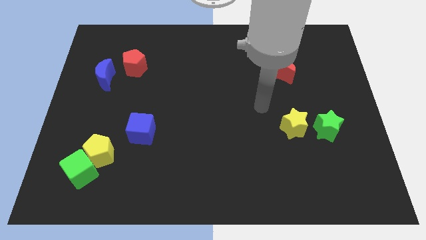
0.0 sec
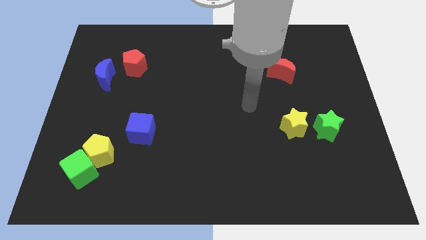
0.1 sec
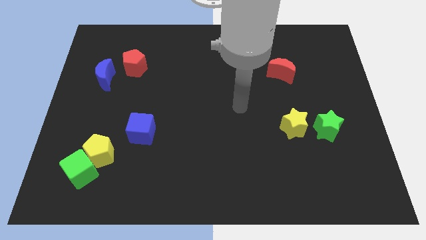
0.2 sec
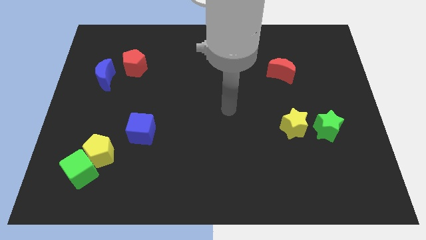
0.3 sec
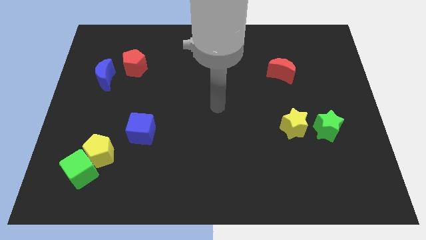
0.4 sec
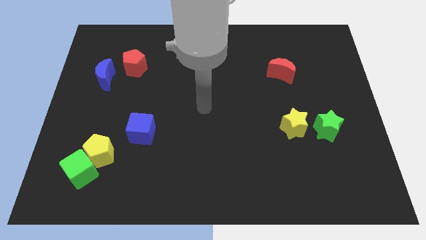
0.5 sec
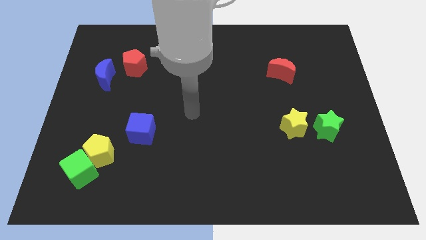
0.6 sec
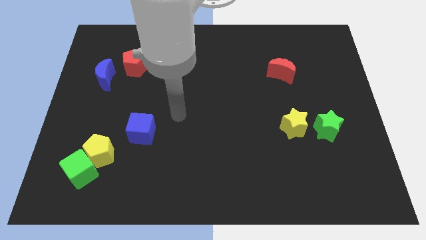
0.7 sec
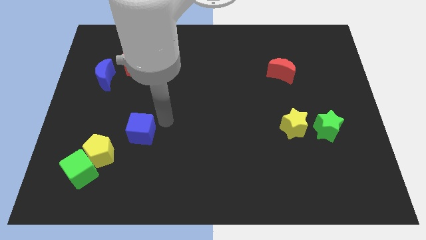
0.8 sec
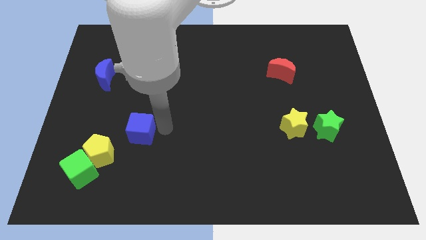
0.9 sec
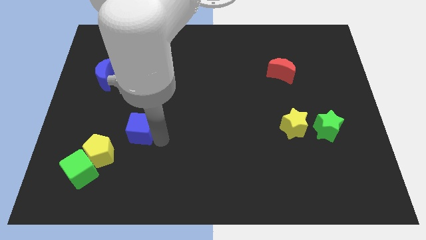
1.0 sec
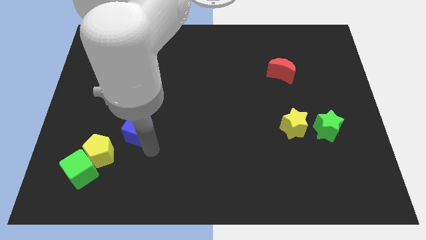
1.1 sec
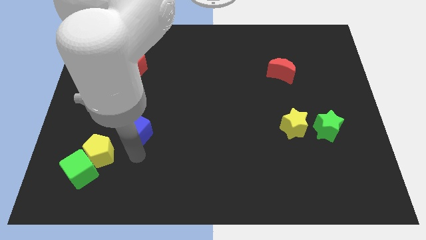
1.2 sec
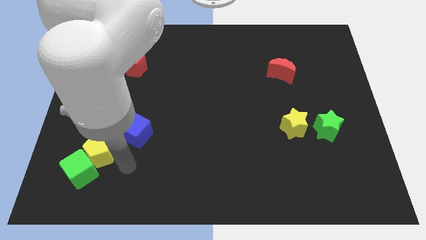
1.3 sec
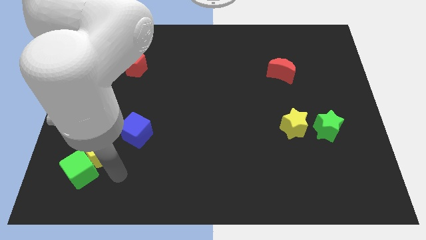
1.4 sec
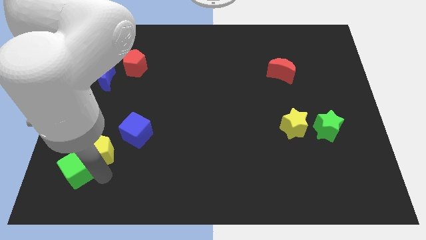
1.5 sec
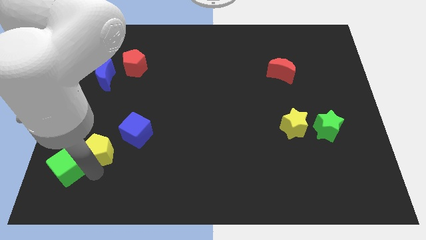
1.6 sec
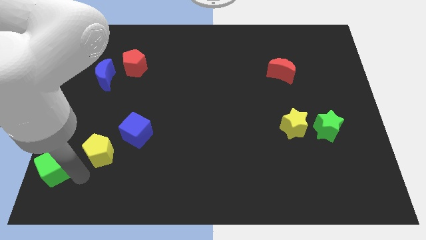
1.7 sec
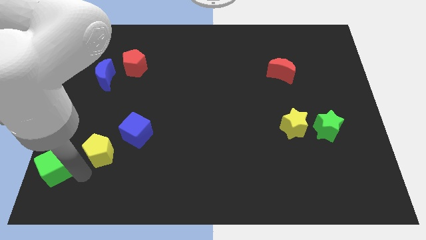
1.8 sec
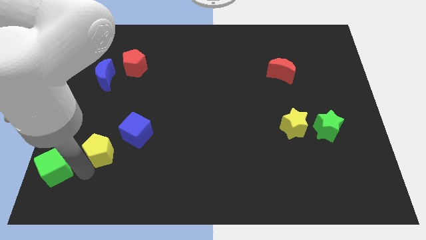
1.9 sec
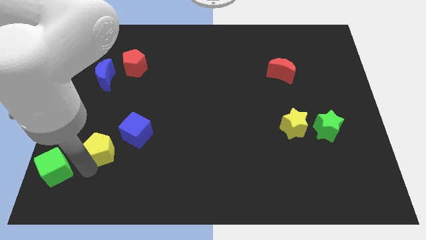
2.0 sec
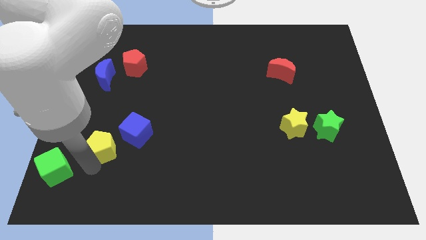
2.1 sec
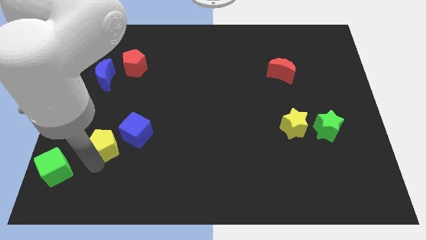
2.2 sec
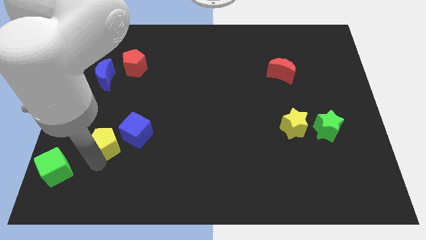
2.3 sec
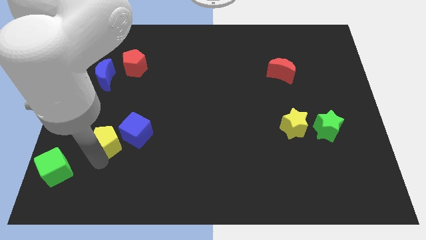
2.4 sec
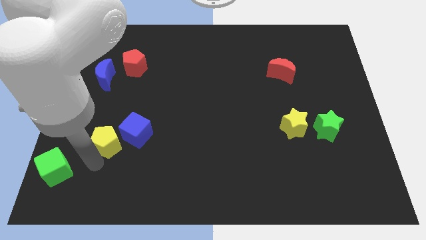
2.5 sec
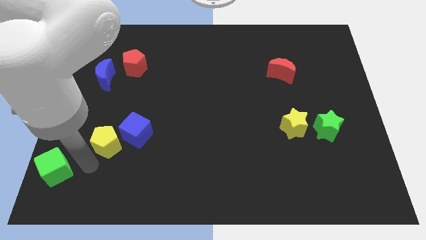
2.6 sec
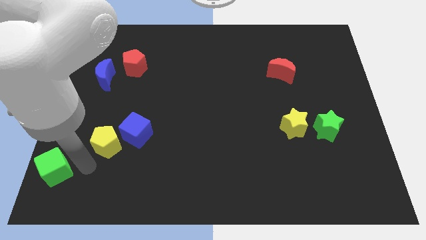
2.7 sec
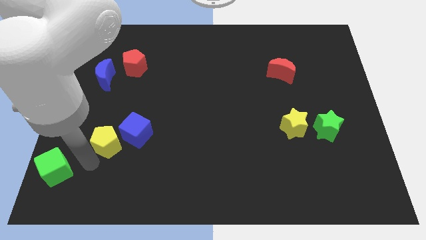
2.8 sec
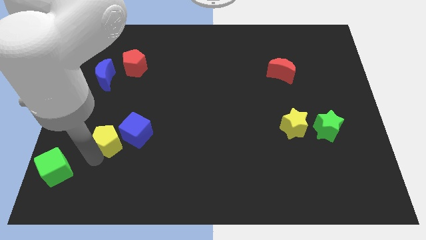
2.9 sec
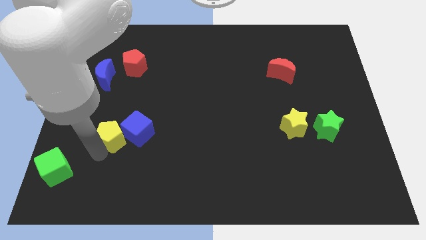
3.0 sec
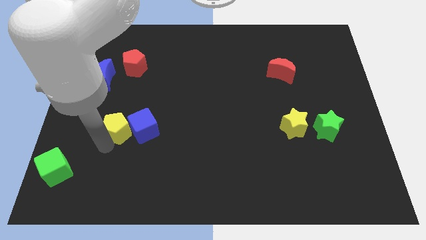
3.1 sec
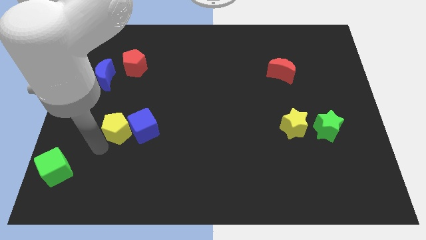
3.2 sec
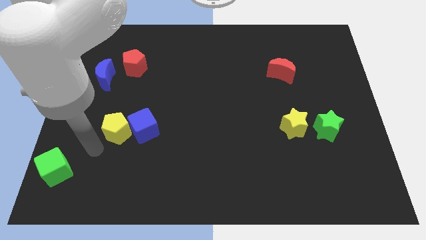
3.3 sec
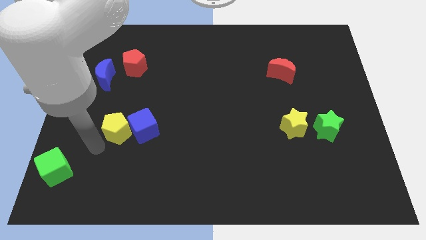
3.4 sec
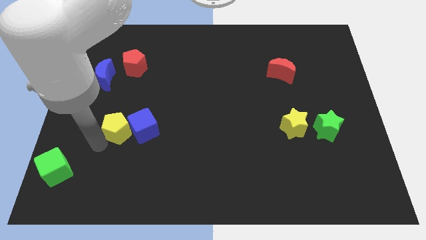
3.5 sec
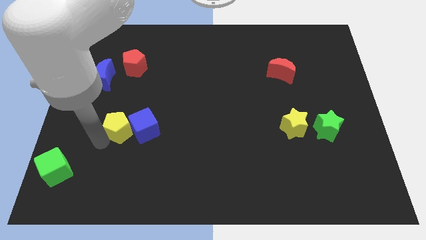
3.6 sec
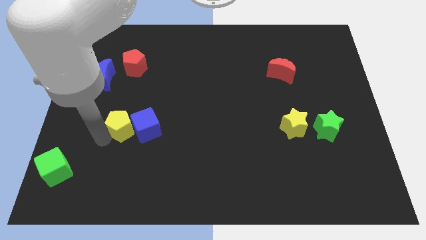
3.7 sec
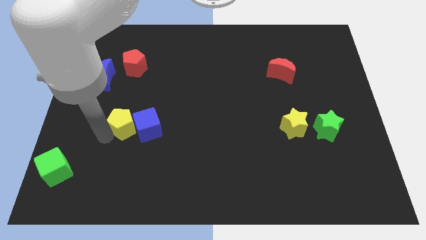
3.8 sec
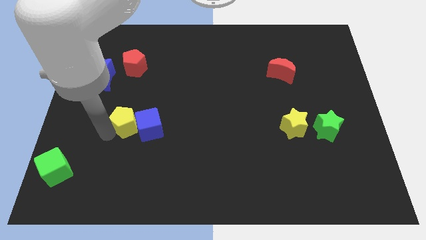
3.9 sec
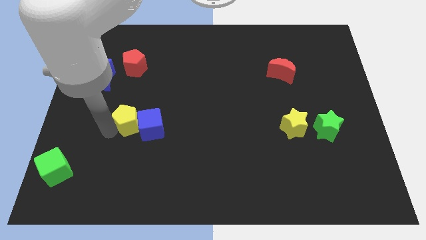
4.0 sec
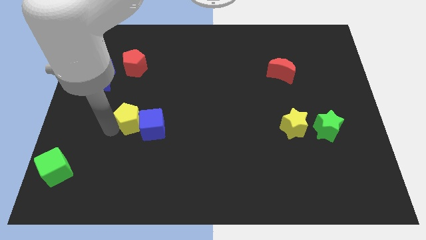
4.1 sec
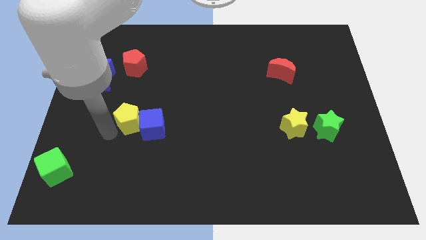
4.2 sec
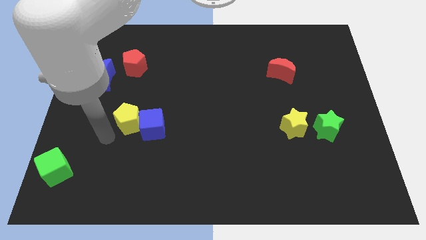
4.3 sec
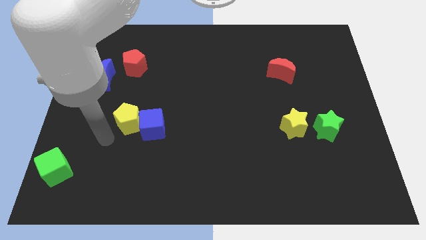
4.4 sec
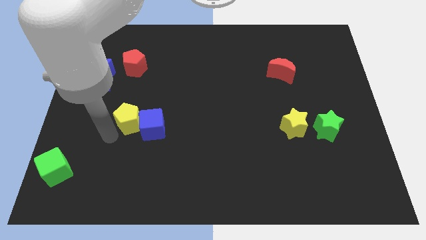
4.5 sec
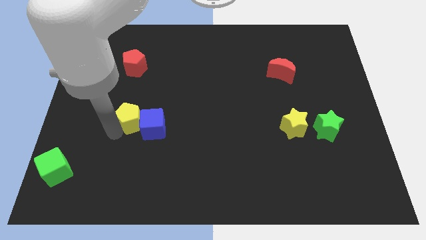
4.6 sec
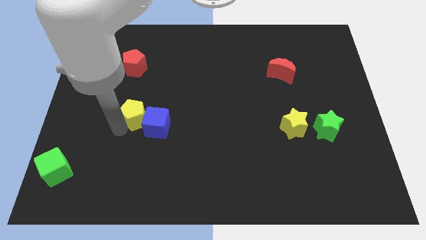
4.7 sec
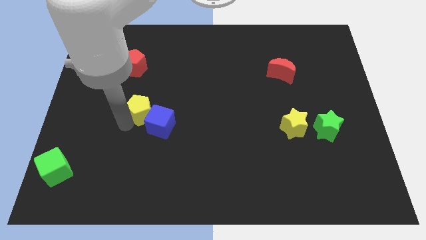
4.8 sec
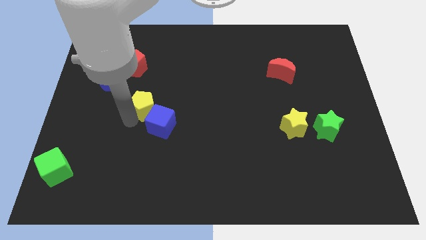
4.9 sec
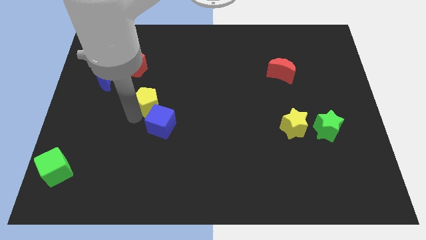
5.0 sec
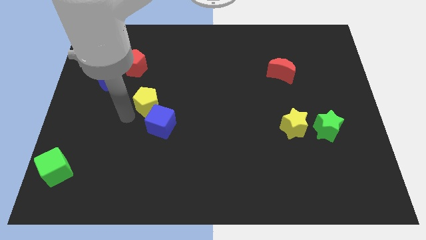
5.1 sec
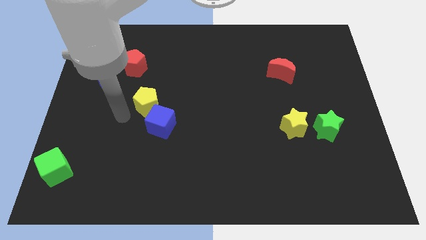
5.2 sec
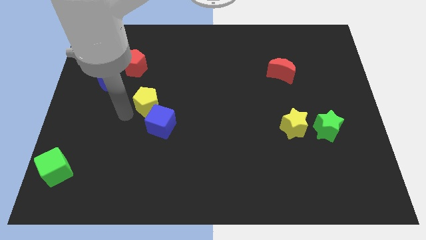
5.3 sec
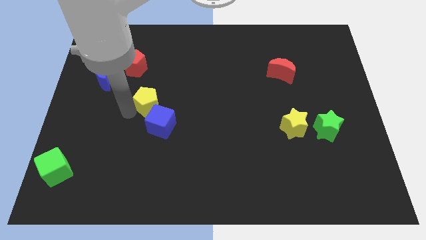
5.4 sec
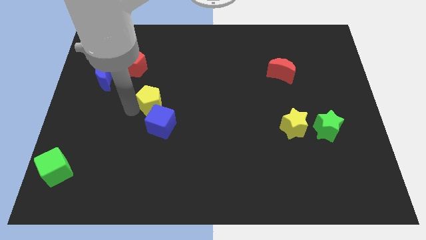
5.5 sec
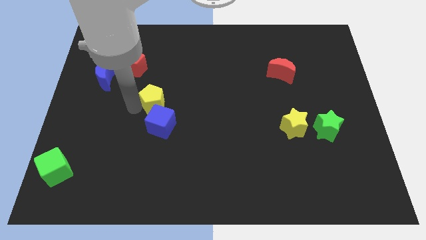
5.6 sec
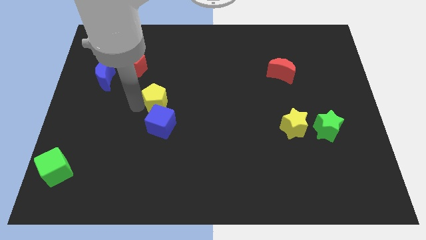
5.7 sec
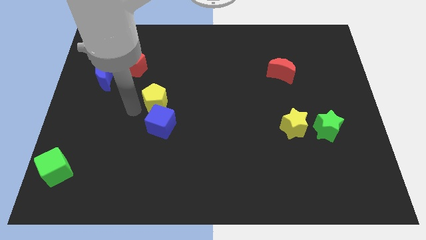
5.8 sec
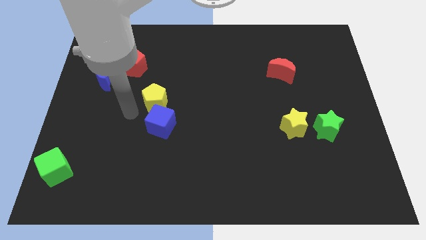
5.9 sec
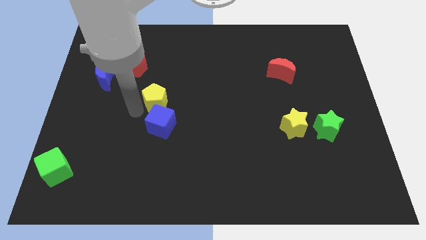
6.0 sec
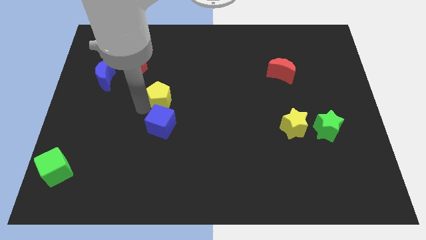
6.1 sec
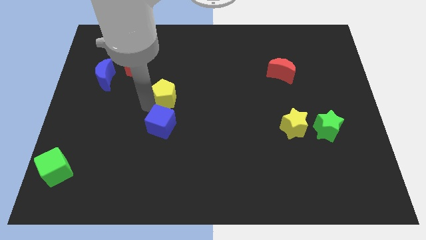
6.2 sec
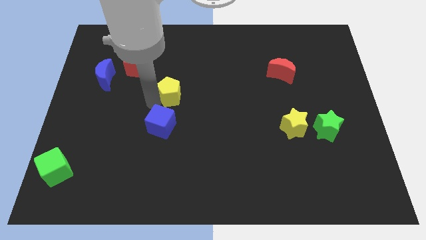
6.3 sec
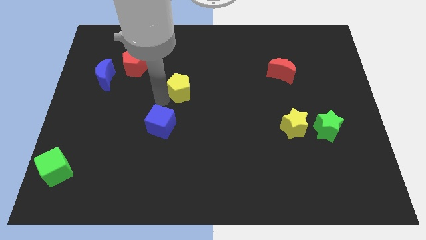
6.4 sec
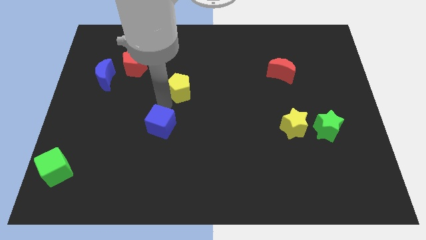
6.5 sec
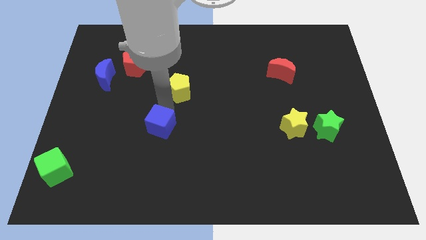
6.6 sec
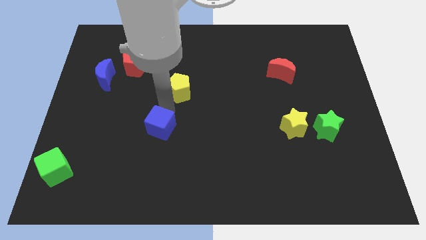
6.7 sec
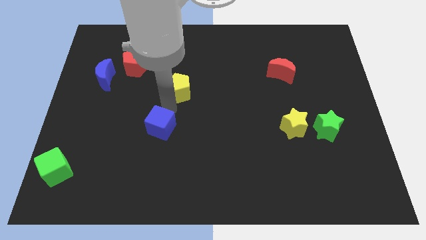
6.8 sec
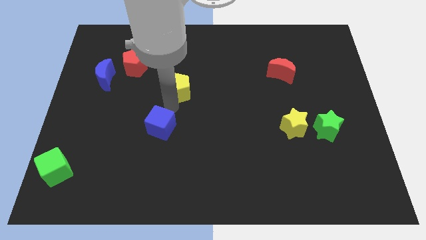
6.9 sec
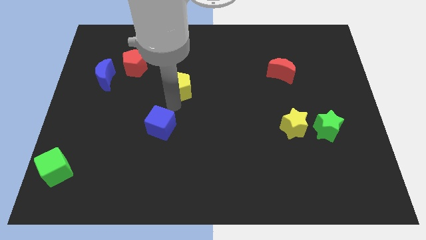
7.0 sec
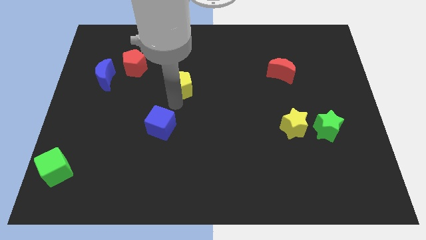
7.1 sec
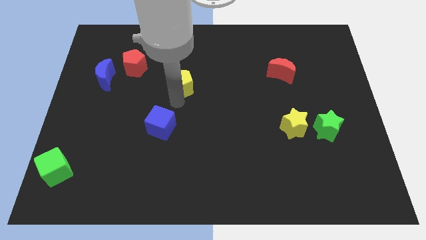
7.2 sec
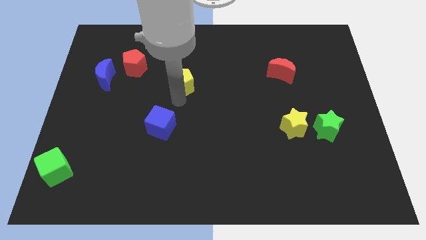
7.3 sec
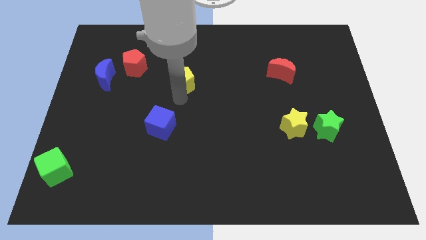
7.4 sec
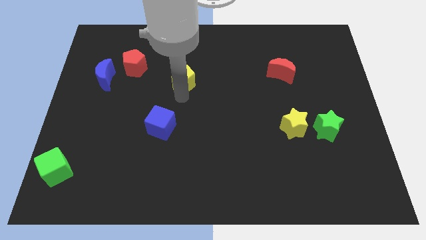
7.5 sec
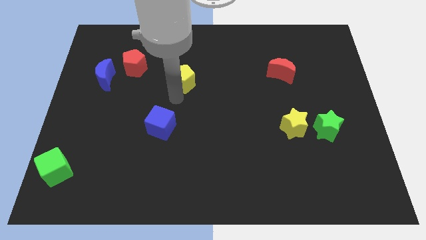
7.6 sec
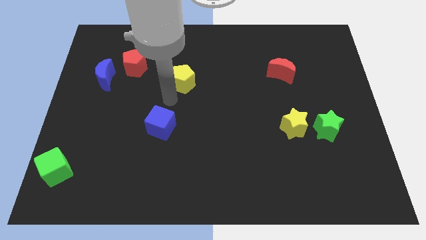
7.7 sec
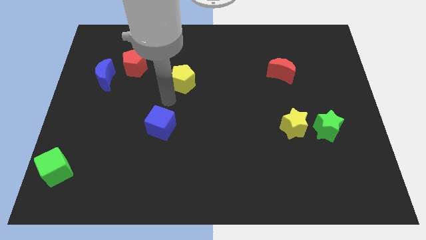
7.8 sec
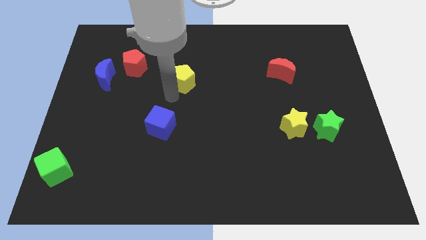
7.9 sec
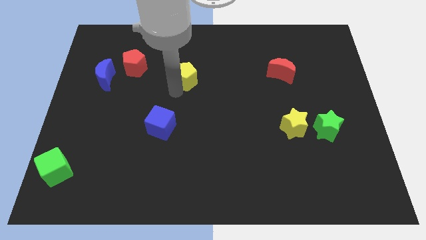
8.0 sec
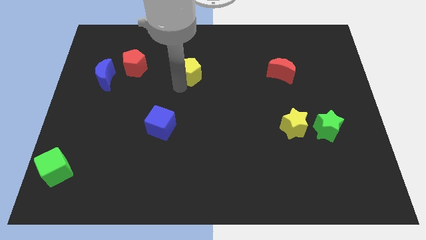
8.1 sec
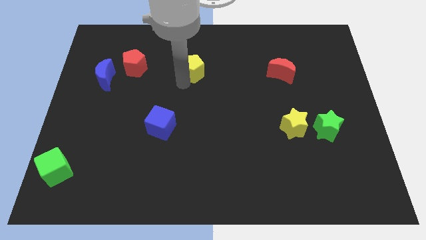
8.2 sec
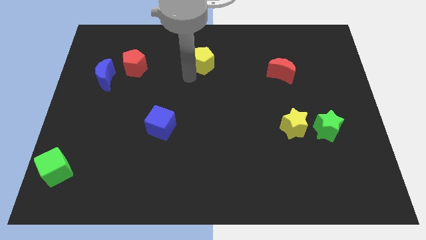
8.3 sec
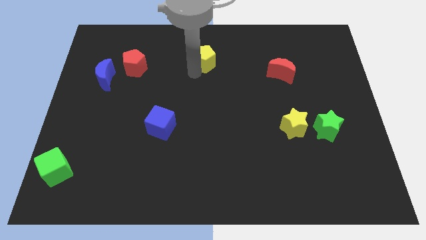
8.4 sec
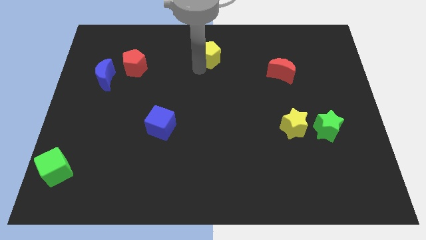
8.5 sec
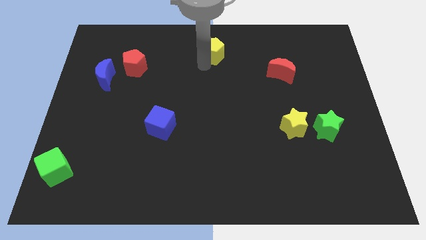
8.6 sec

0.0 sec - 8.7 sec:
move the yellow pentagon to the top
